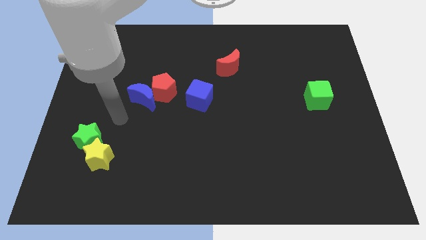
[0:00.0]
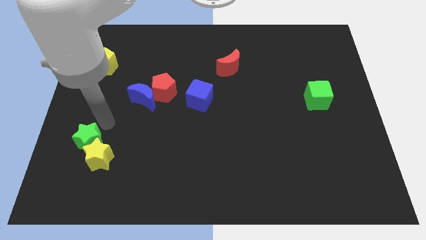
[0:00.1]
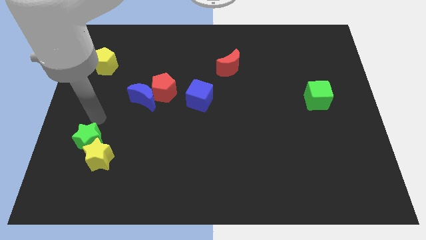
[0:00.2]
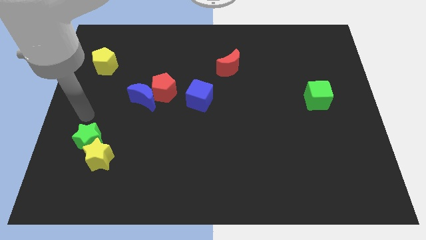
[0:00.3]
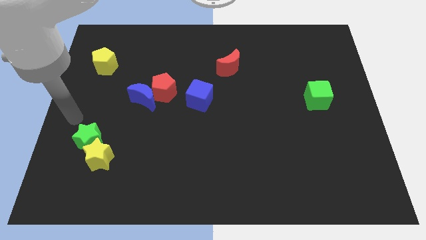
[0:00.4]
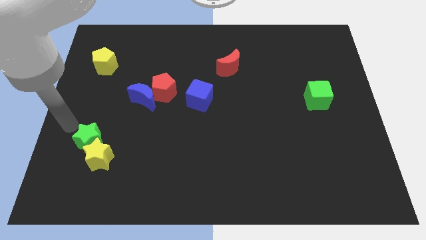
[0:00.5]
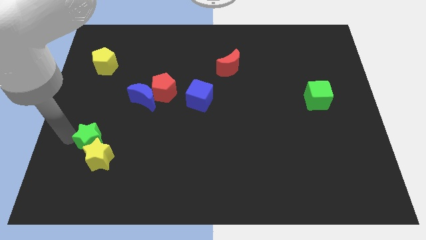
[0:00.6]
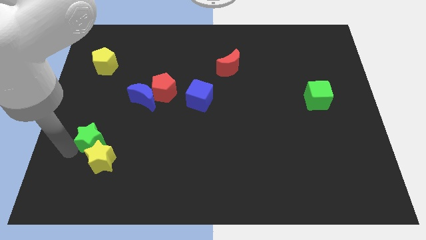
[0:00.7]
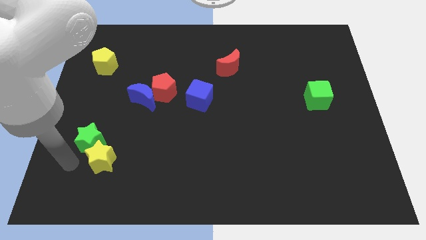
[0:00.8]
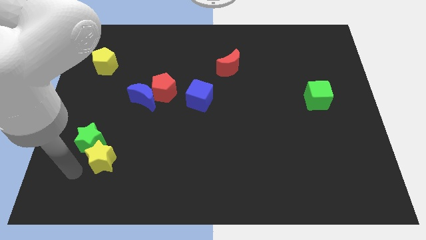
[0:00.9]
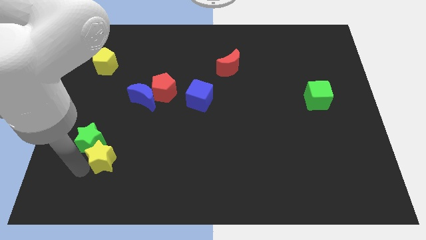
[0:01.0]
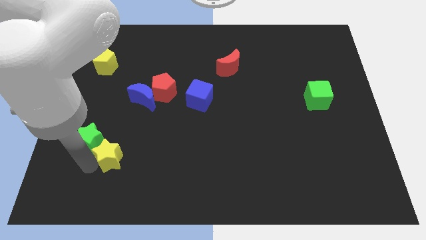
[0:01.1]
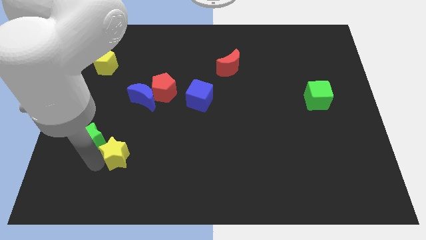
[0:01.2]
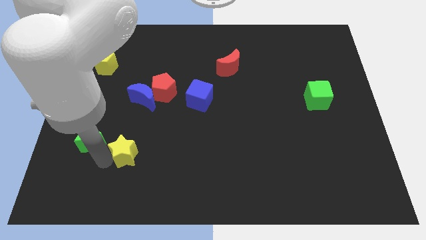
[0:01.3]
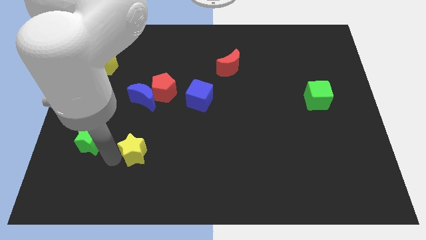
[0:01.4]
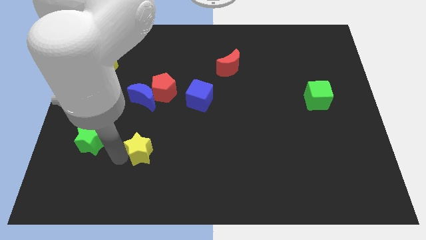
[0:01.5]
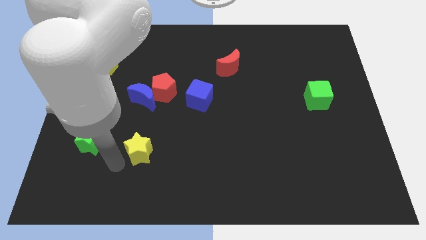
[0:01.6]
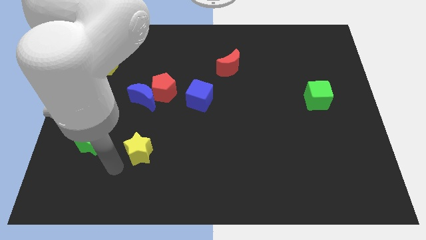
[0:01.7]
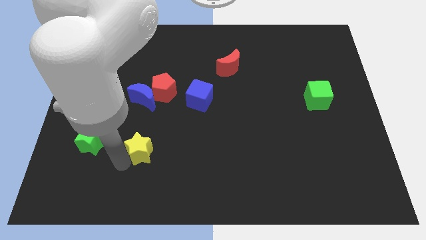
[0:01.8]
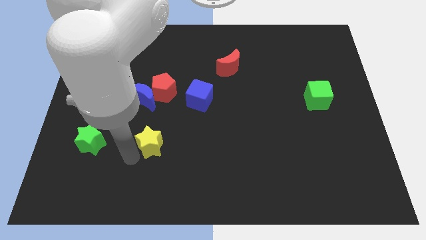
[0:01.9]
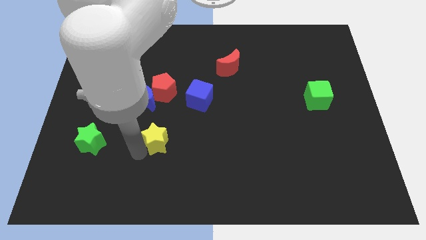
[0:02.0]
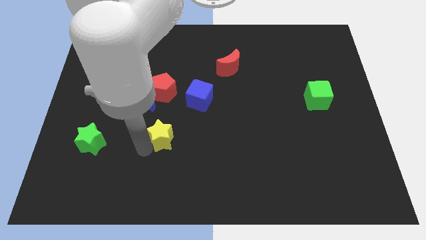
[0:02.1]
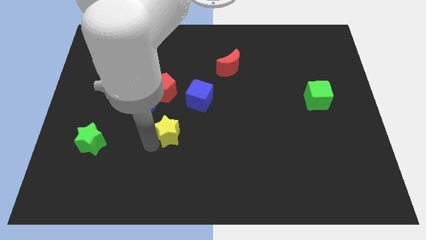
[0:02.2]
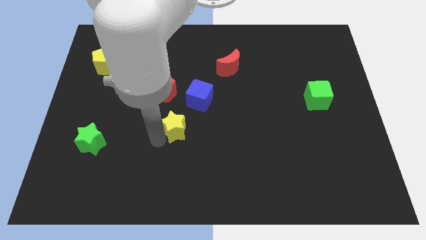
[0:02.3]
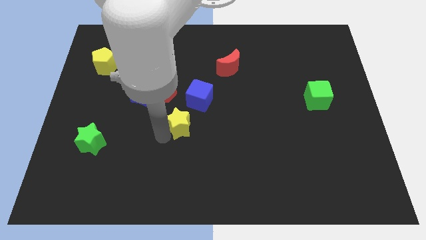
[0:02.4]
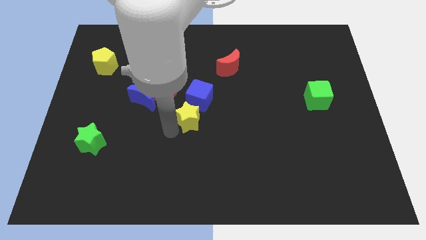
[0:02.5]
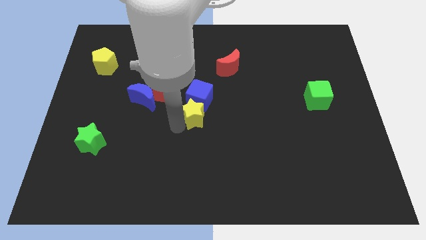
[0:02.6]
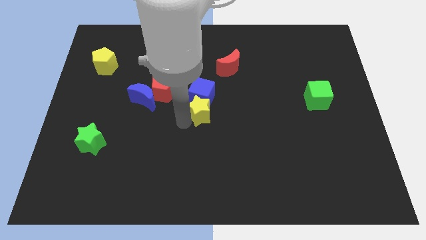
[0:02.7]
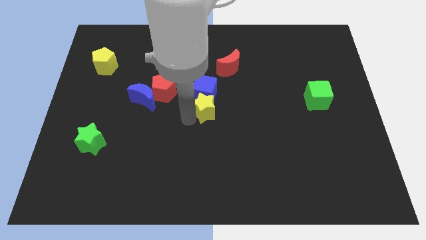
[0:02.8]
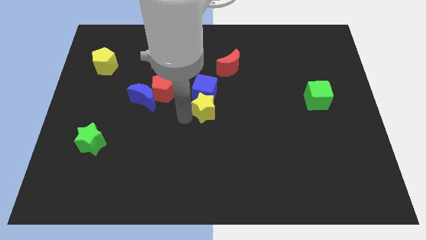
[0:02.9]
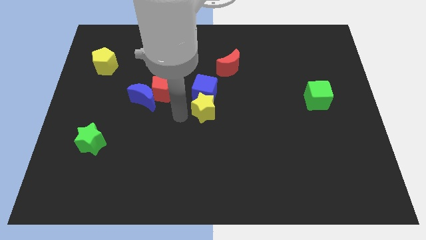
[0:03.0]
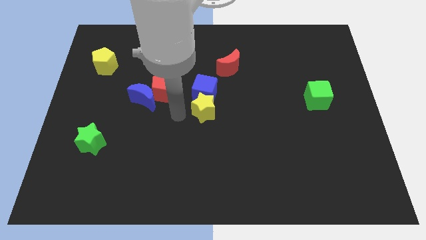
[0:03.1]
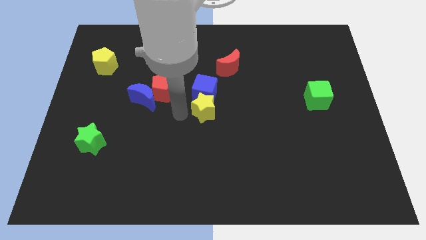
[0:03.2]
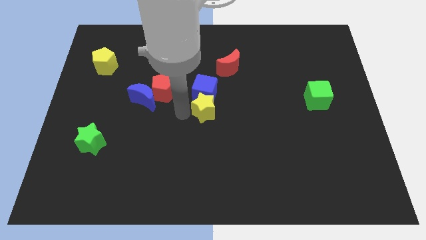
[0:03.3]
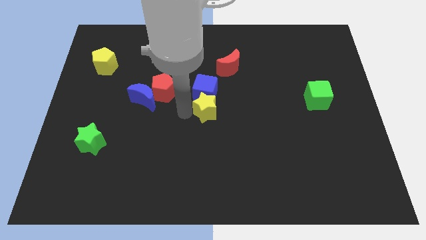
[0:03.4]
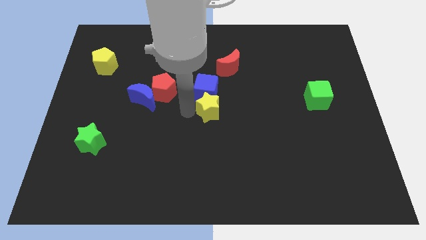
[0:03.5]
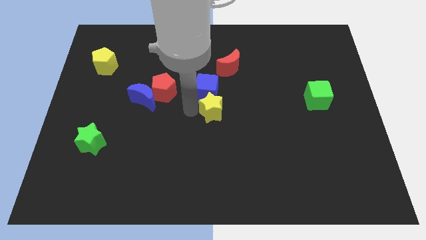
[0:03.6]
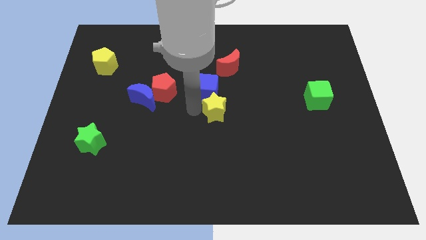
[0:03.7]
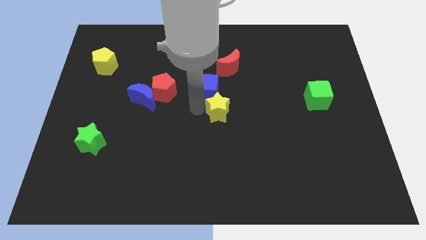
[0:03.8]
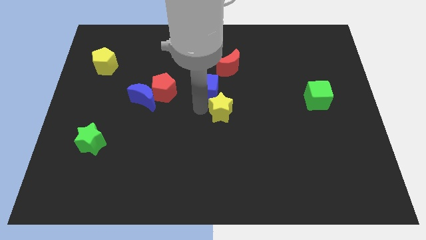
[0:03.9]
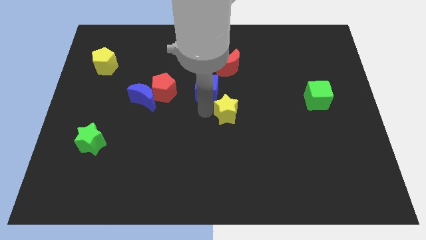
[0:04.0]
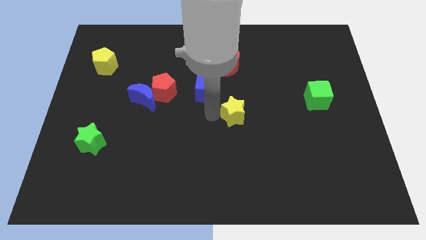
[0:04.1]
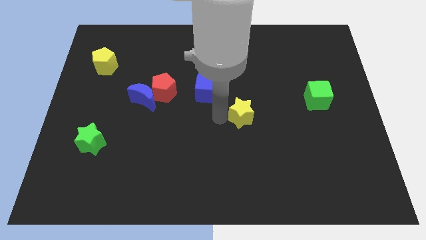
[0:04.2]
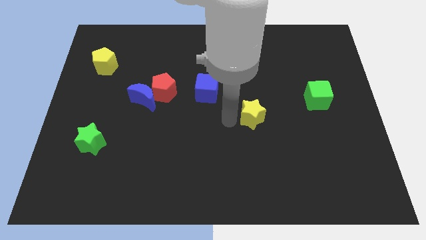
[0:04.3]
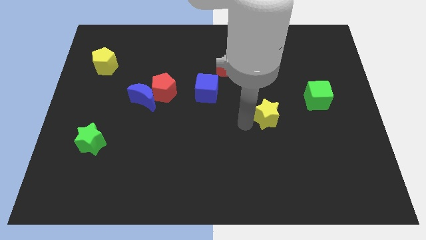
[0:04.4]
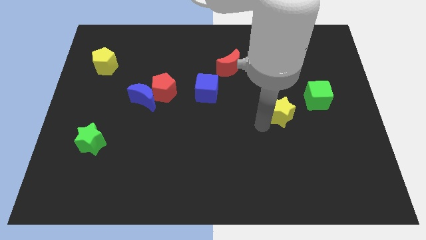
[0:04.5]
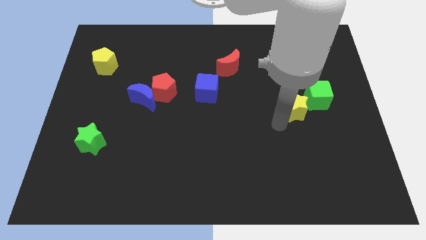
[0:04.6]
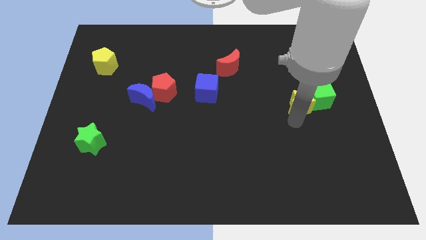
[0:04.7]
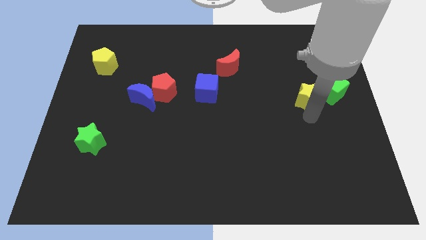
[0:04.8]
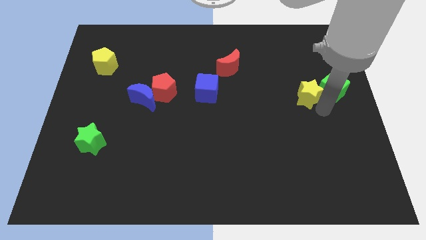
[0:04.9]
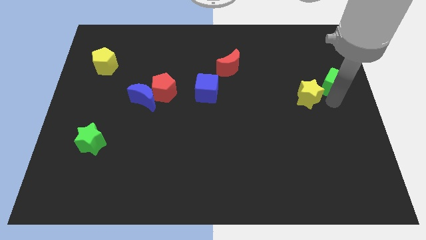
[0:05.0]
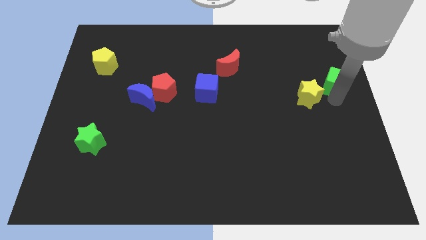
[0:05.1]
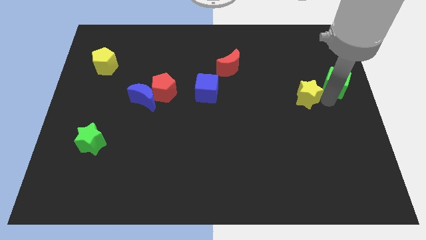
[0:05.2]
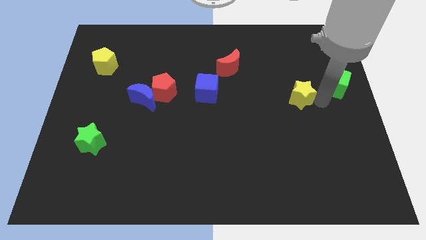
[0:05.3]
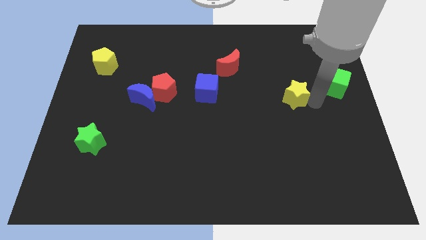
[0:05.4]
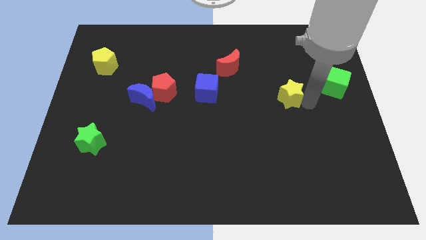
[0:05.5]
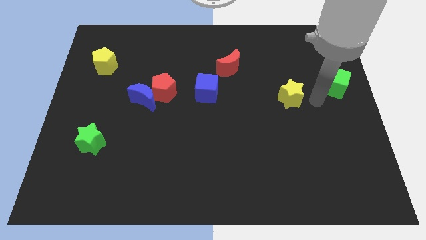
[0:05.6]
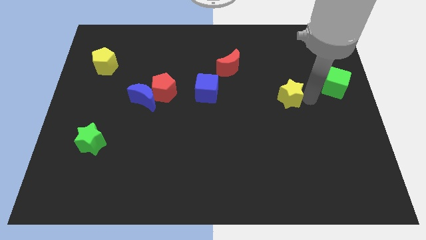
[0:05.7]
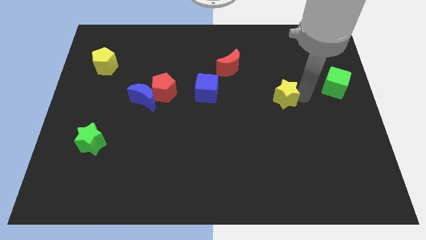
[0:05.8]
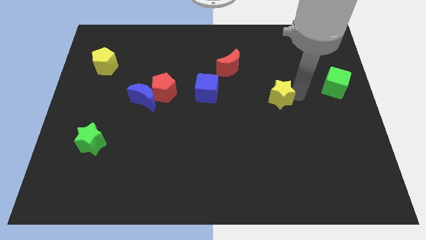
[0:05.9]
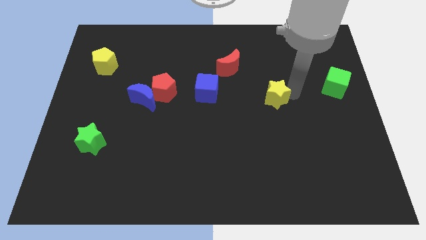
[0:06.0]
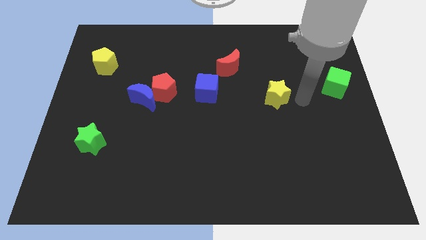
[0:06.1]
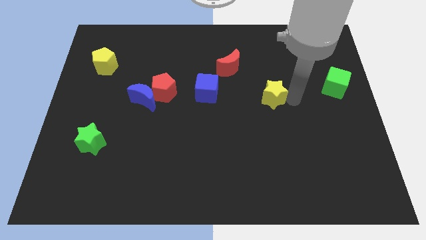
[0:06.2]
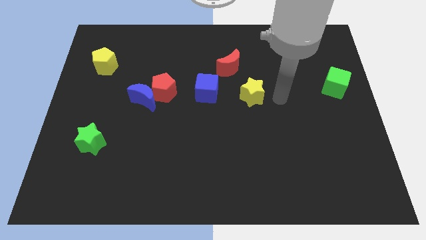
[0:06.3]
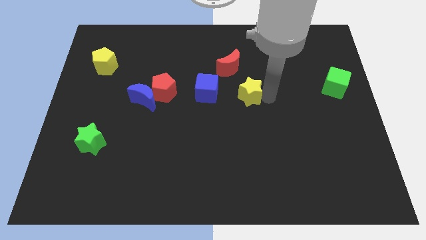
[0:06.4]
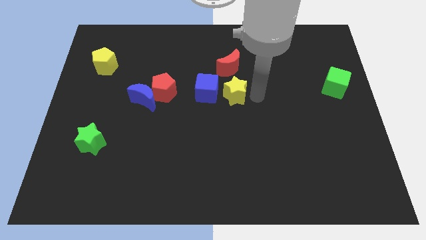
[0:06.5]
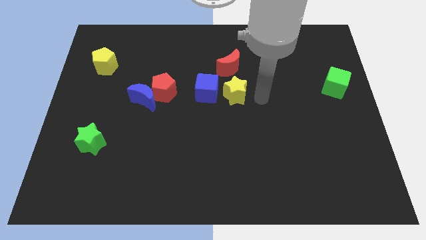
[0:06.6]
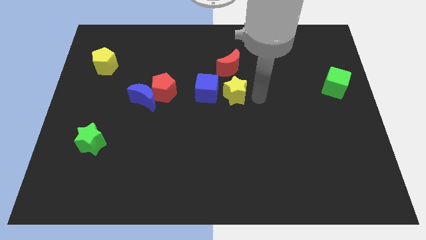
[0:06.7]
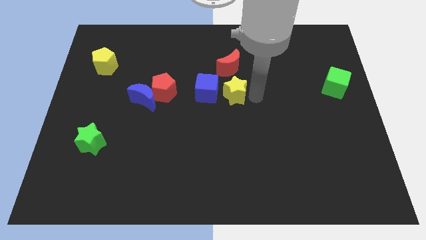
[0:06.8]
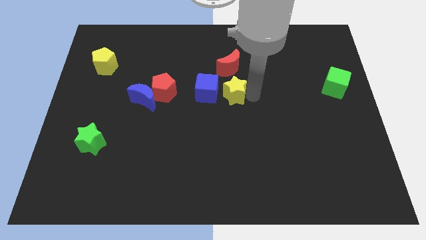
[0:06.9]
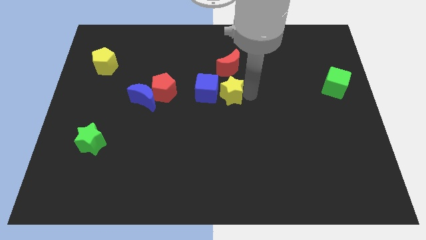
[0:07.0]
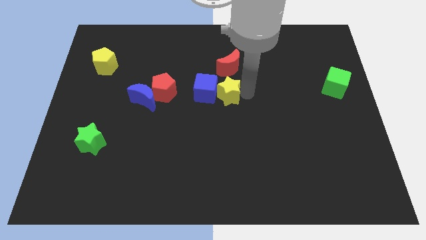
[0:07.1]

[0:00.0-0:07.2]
push the yellow star to the right side of the red pentagon
